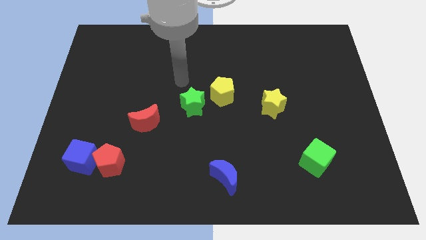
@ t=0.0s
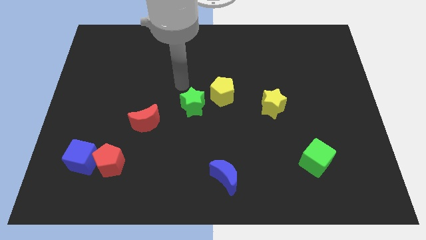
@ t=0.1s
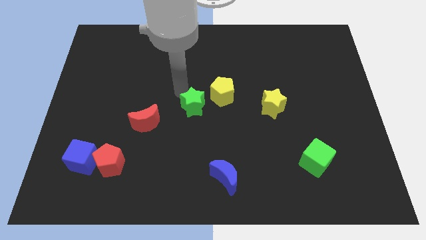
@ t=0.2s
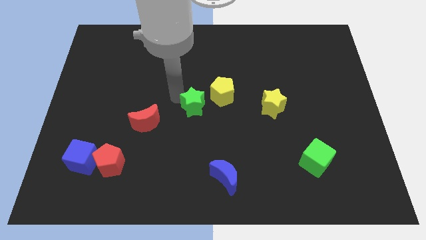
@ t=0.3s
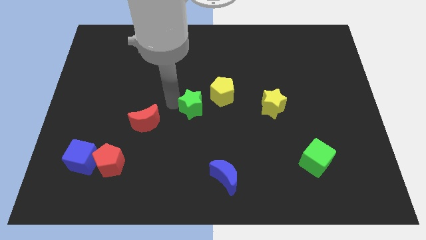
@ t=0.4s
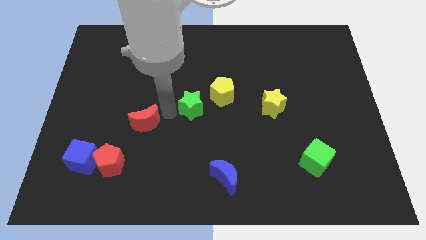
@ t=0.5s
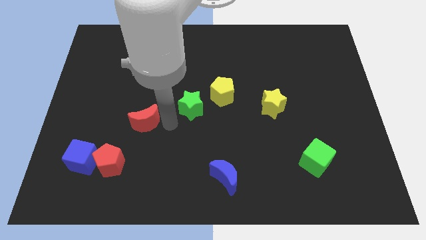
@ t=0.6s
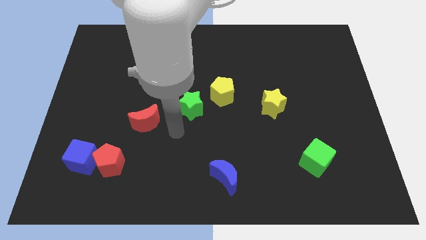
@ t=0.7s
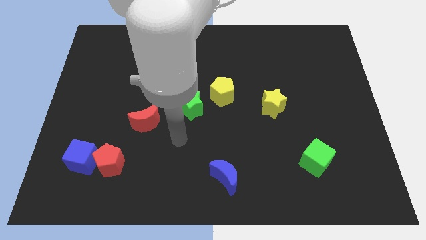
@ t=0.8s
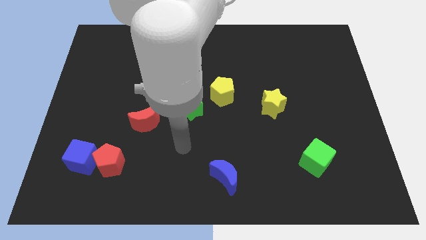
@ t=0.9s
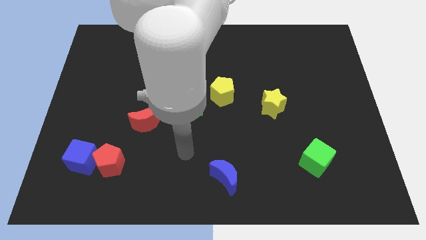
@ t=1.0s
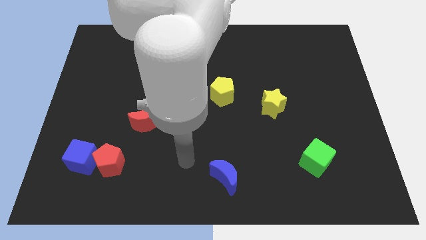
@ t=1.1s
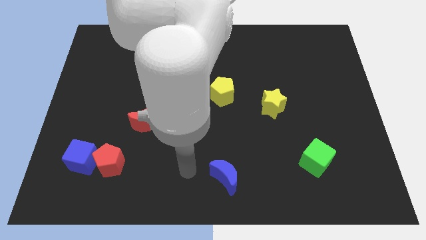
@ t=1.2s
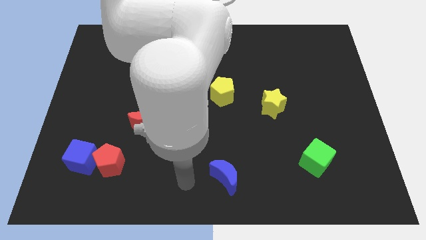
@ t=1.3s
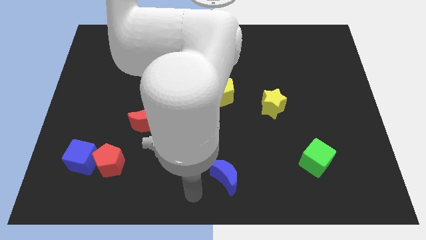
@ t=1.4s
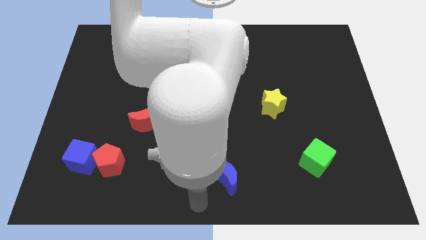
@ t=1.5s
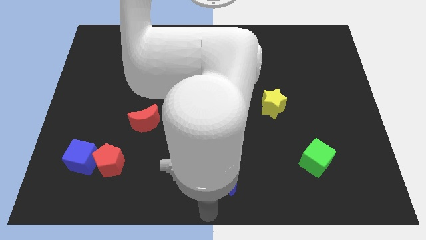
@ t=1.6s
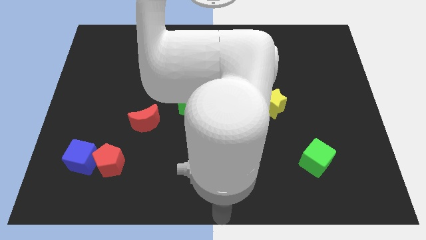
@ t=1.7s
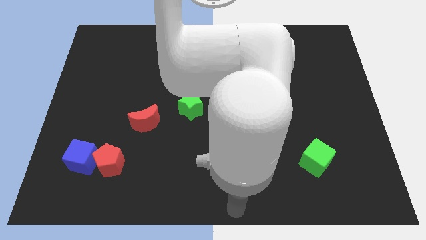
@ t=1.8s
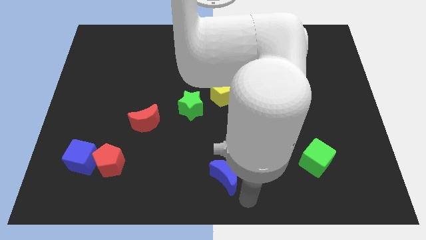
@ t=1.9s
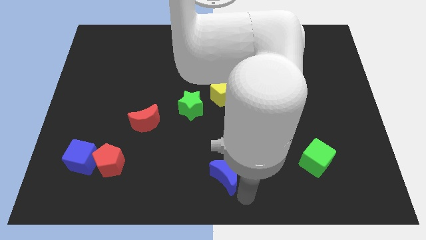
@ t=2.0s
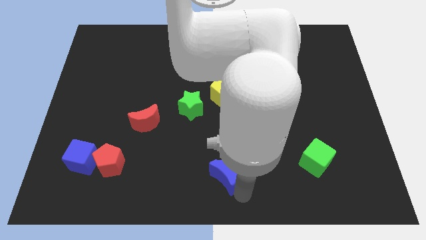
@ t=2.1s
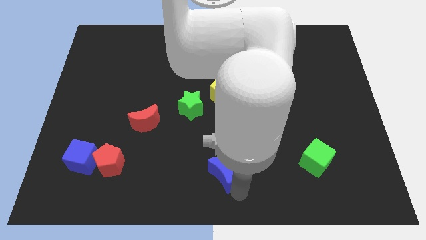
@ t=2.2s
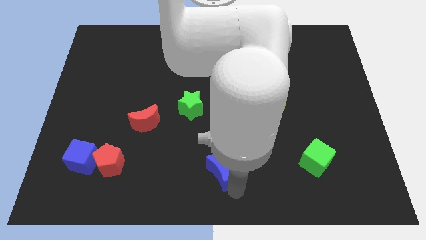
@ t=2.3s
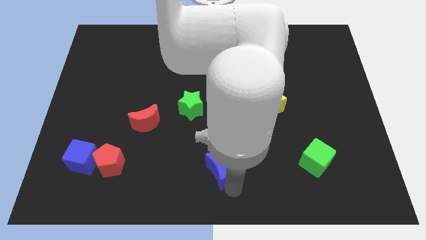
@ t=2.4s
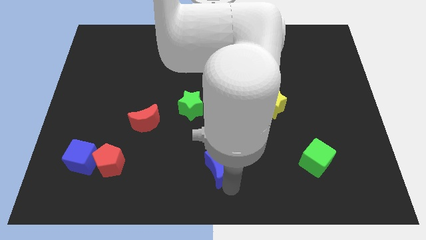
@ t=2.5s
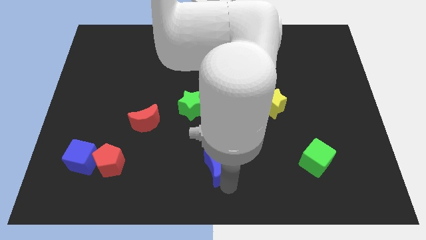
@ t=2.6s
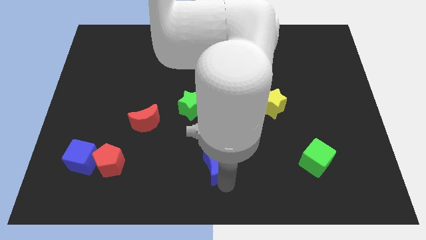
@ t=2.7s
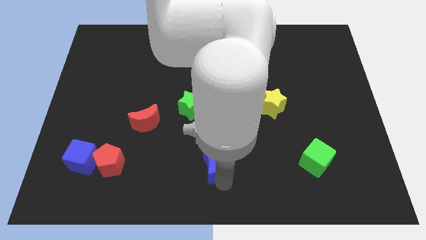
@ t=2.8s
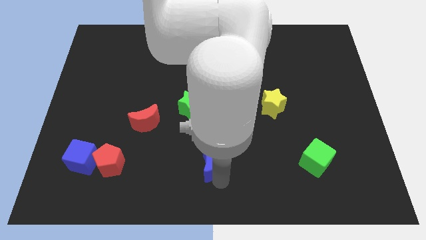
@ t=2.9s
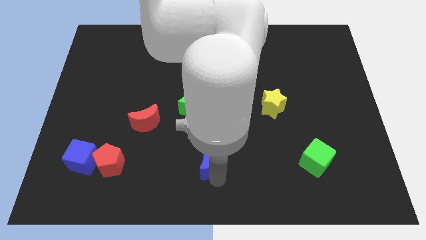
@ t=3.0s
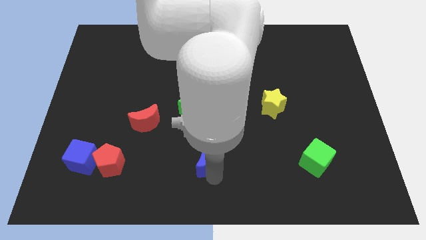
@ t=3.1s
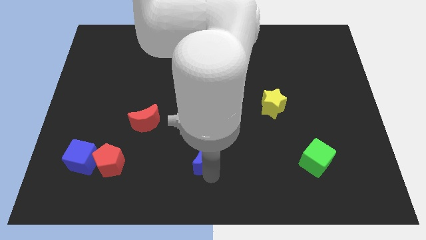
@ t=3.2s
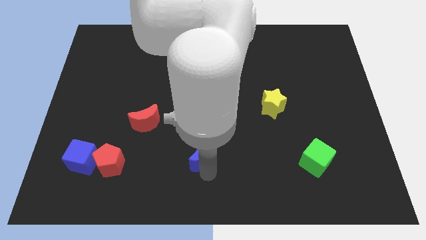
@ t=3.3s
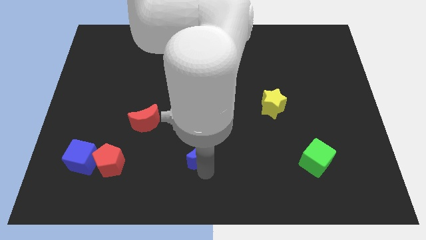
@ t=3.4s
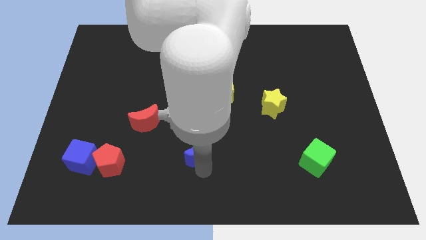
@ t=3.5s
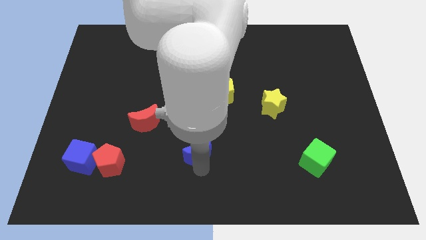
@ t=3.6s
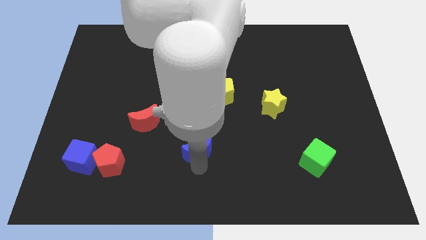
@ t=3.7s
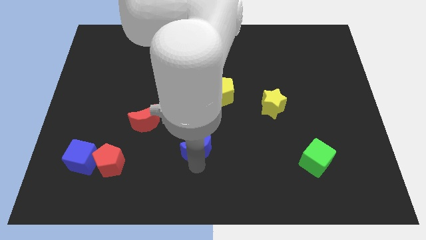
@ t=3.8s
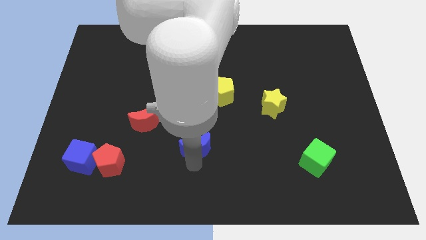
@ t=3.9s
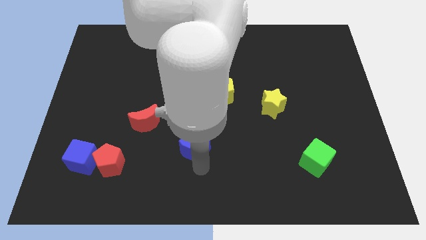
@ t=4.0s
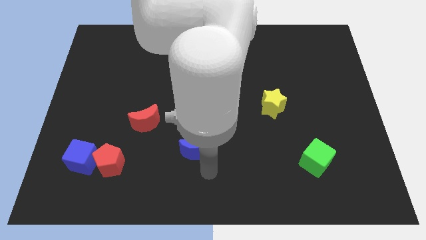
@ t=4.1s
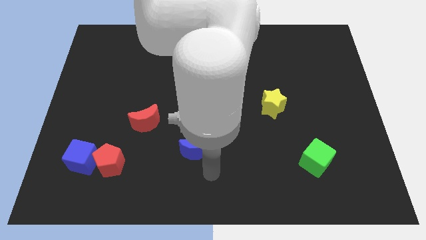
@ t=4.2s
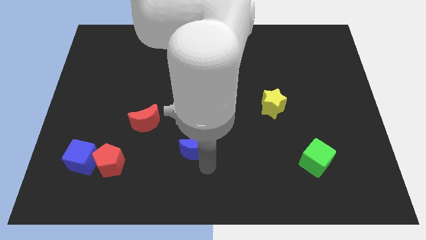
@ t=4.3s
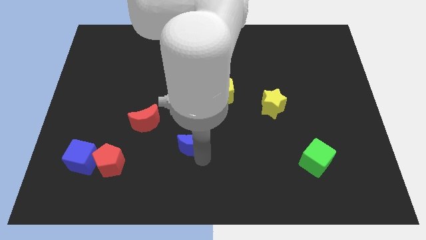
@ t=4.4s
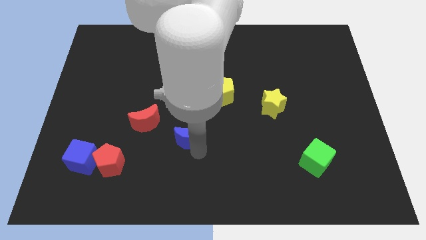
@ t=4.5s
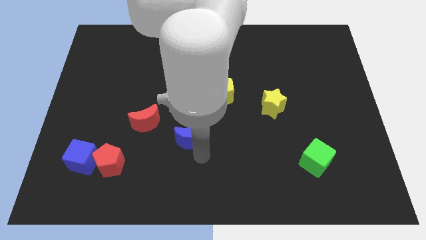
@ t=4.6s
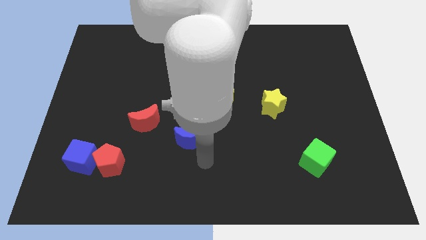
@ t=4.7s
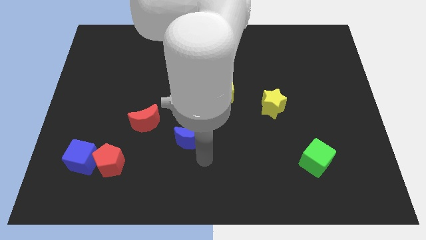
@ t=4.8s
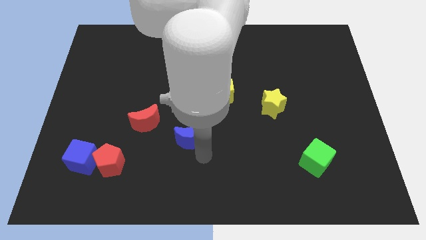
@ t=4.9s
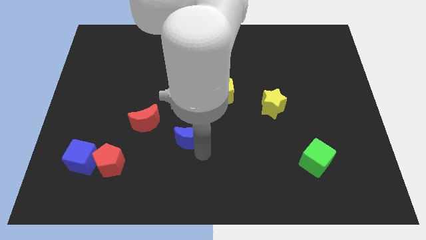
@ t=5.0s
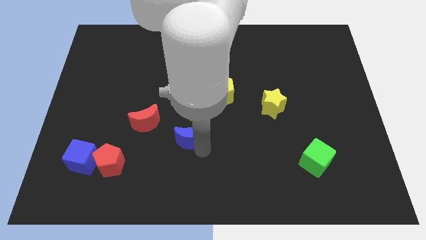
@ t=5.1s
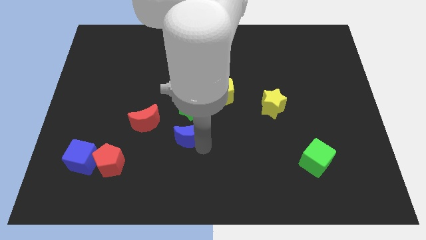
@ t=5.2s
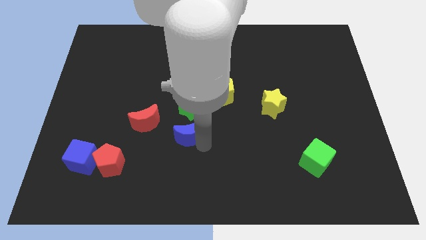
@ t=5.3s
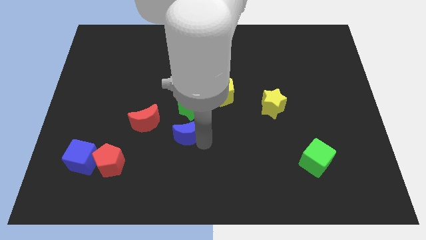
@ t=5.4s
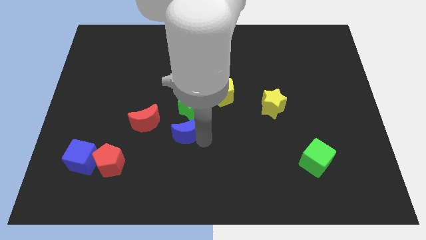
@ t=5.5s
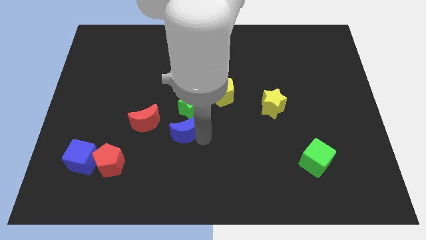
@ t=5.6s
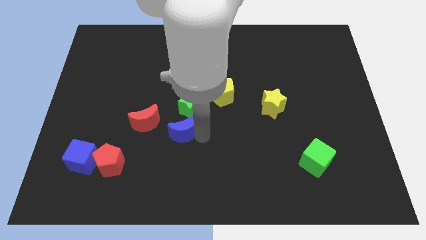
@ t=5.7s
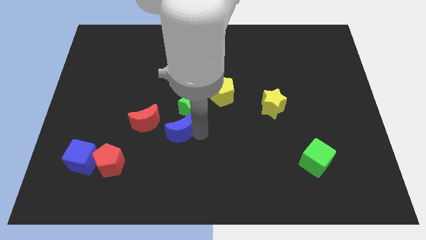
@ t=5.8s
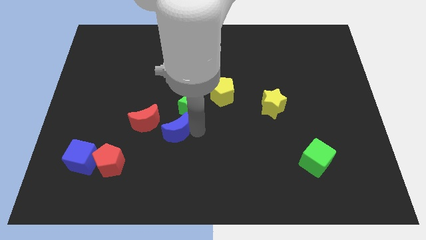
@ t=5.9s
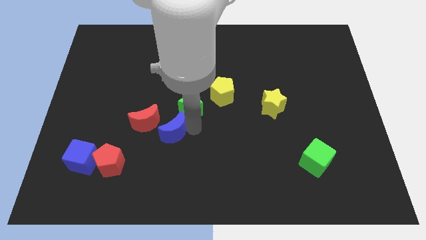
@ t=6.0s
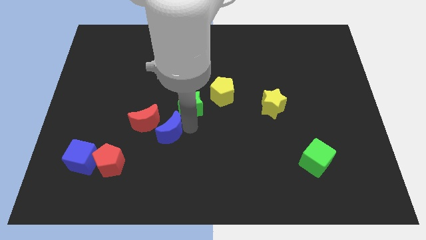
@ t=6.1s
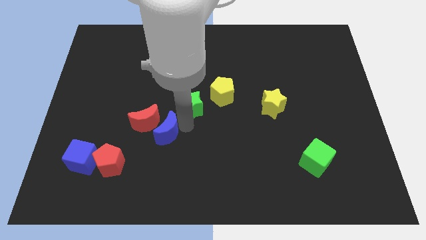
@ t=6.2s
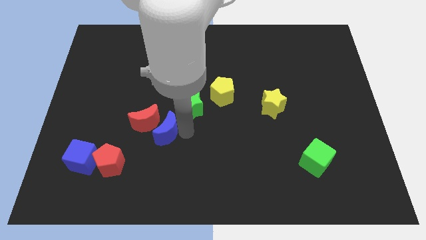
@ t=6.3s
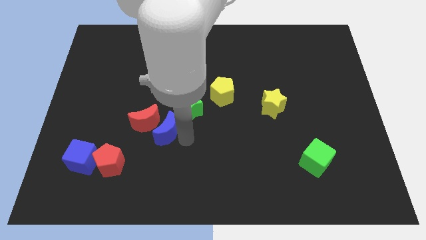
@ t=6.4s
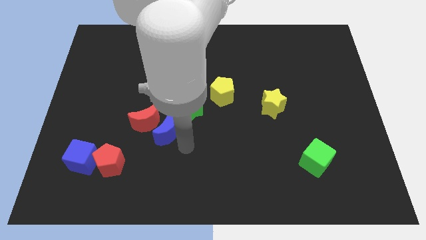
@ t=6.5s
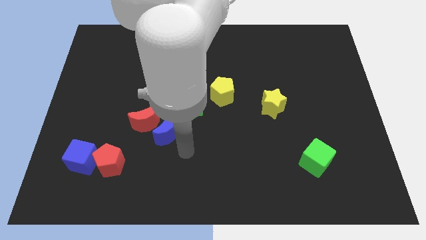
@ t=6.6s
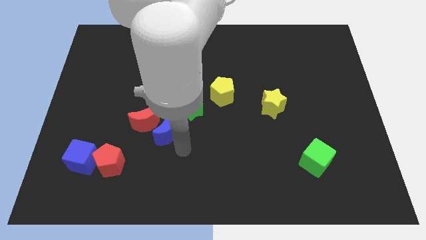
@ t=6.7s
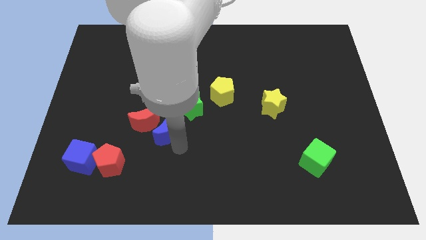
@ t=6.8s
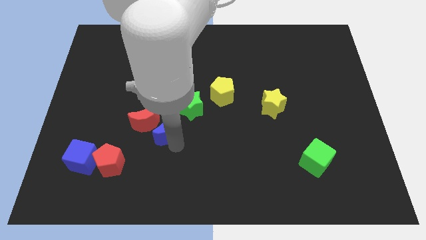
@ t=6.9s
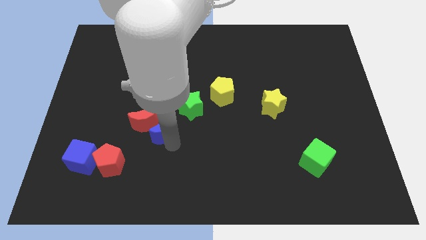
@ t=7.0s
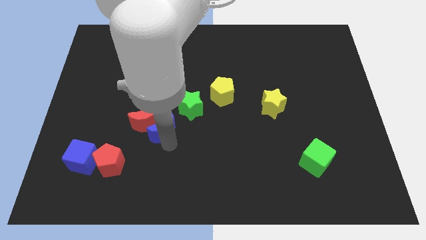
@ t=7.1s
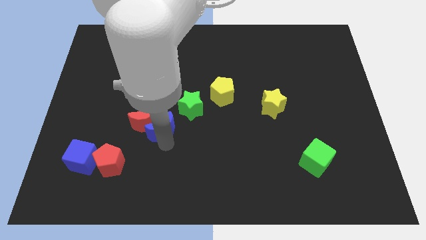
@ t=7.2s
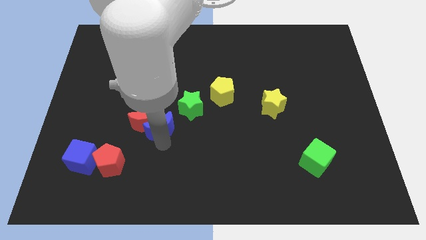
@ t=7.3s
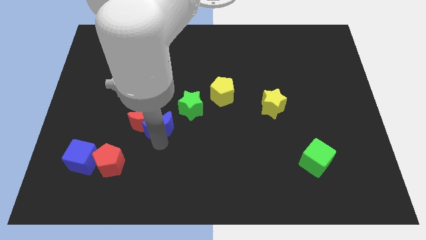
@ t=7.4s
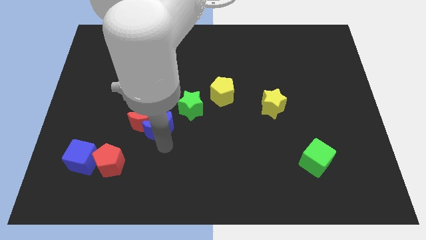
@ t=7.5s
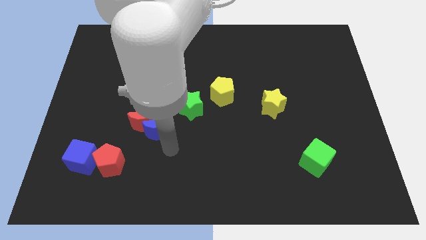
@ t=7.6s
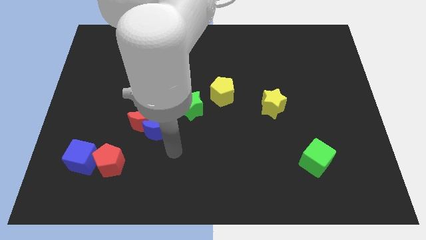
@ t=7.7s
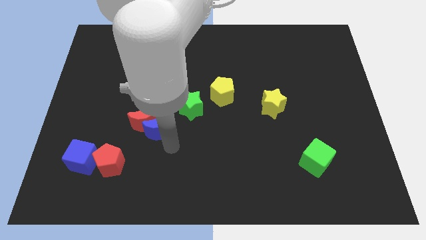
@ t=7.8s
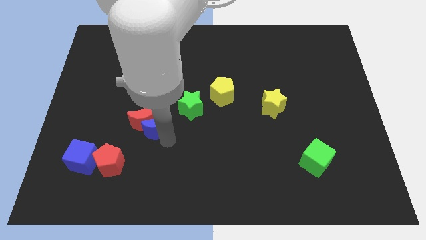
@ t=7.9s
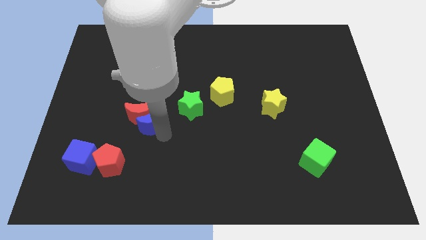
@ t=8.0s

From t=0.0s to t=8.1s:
move the blue moon to the left side of the green star

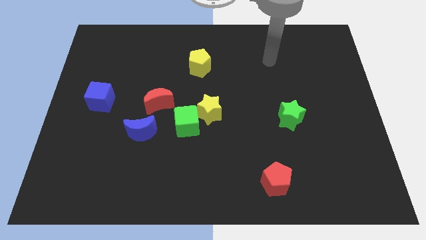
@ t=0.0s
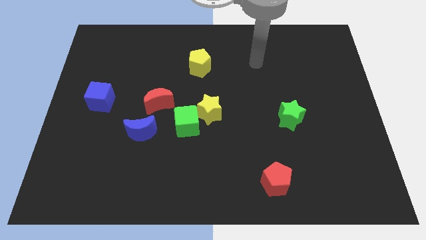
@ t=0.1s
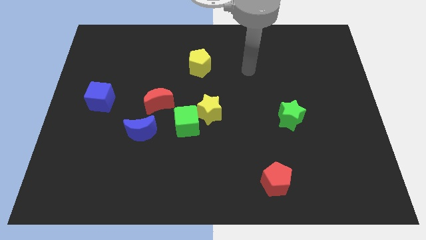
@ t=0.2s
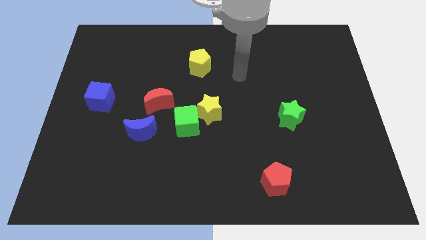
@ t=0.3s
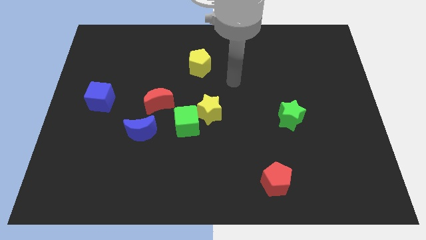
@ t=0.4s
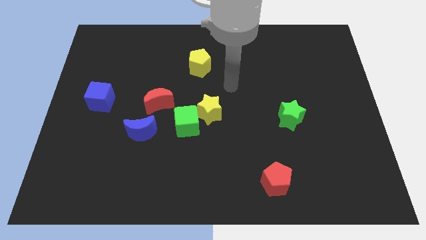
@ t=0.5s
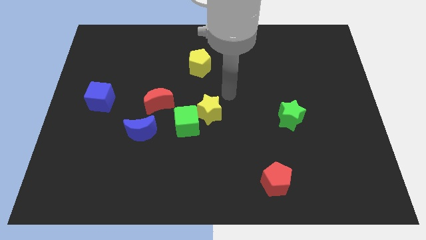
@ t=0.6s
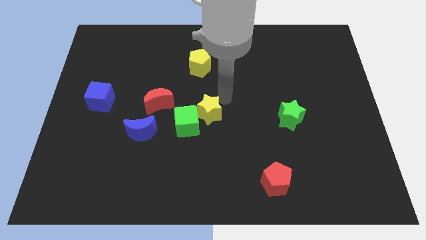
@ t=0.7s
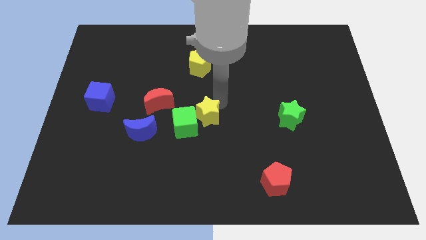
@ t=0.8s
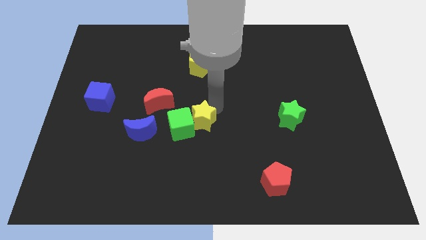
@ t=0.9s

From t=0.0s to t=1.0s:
move the yellow star just right of the blue moon
